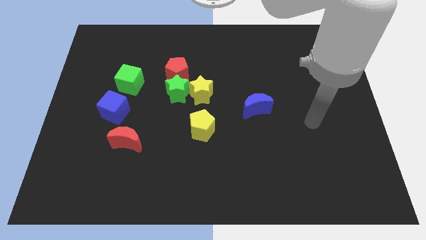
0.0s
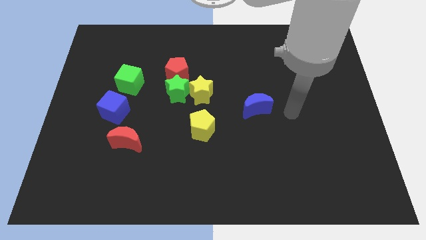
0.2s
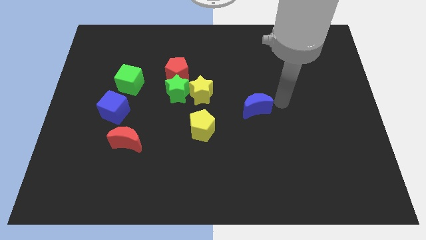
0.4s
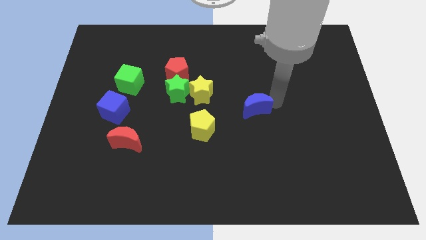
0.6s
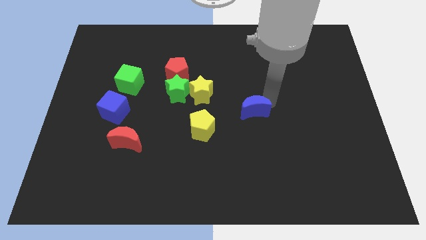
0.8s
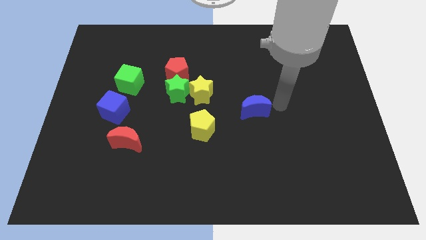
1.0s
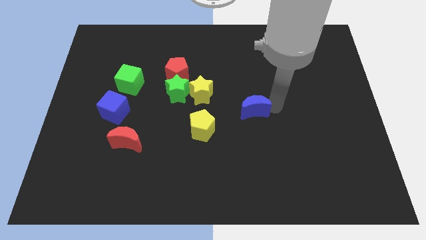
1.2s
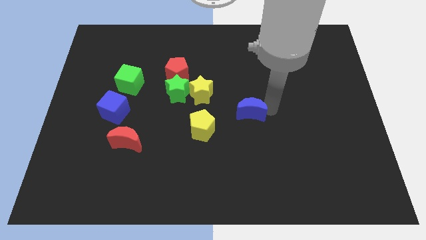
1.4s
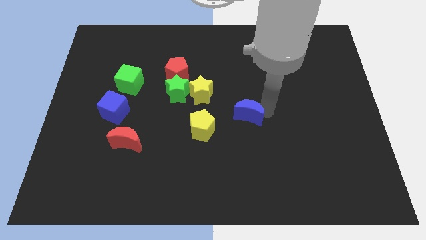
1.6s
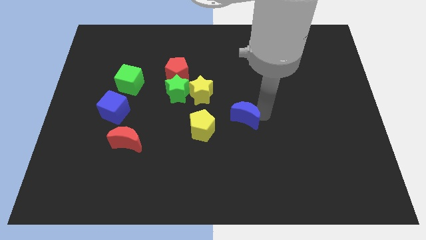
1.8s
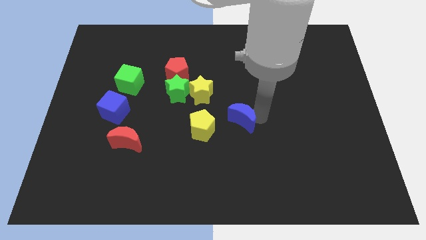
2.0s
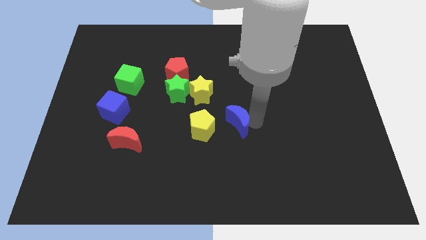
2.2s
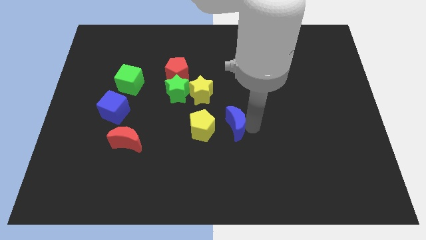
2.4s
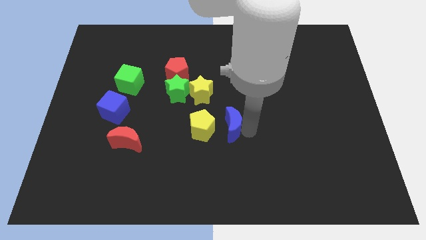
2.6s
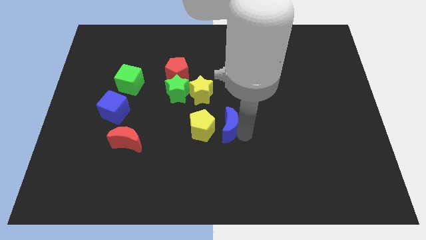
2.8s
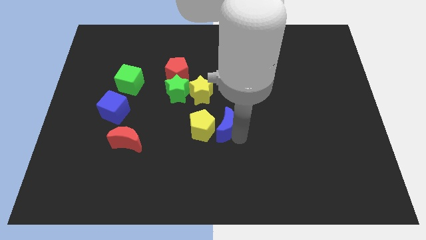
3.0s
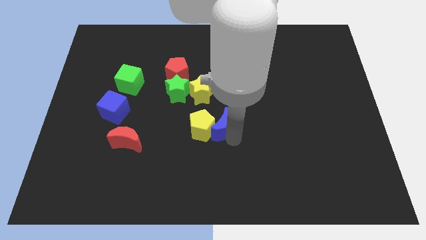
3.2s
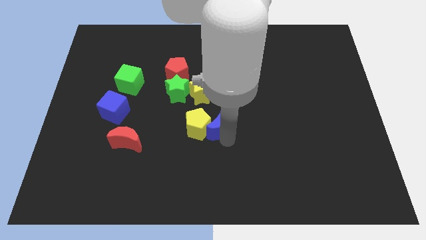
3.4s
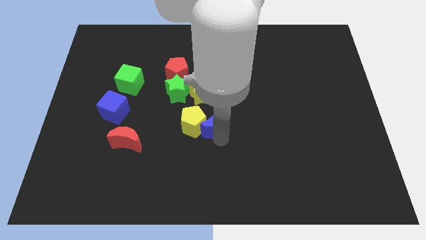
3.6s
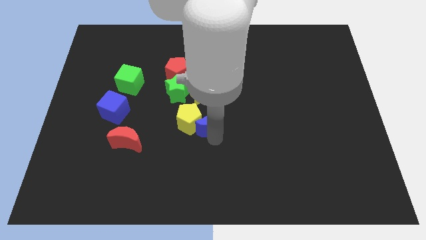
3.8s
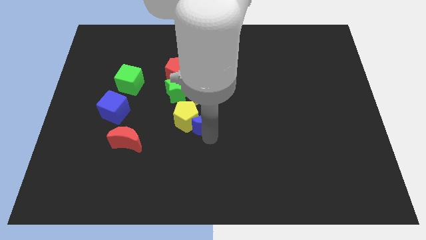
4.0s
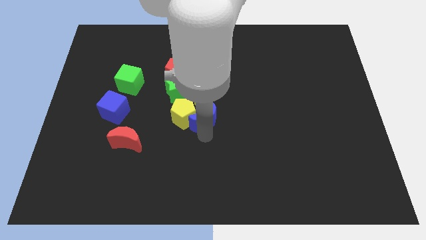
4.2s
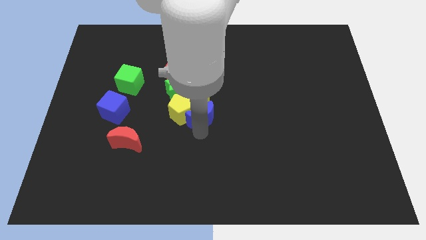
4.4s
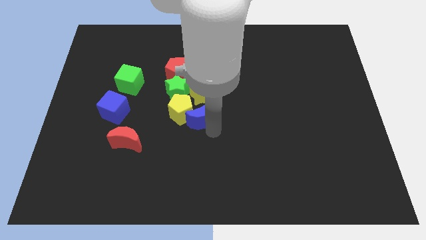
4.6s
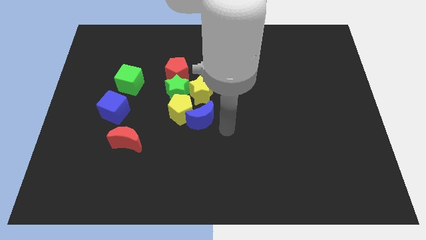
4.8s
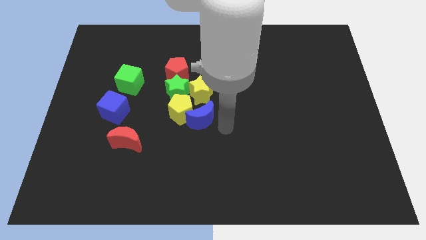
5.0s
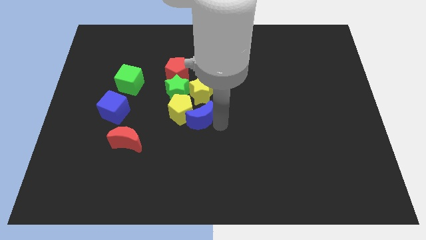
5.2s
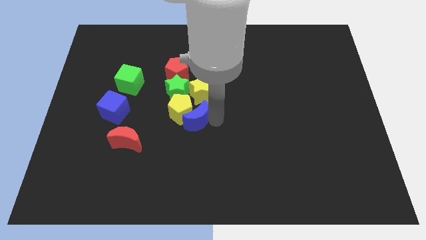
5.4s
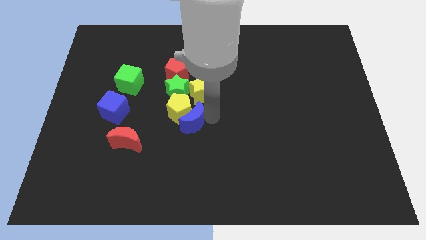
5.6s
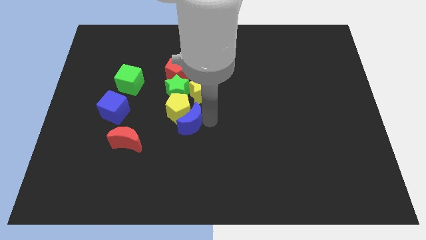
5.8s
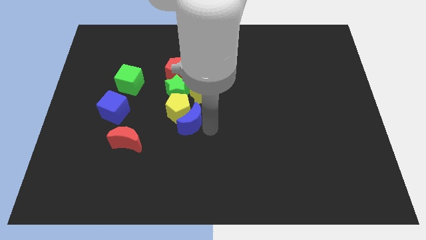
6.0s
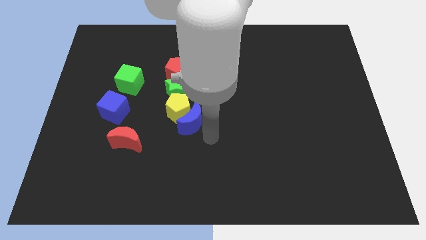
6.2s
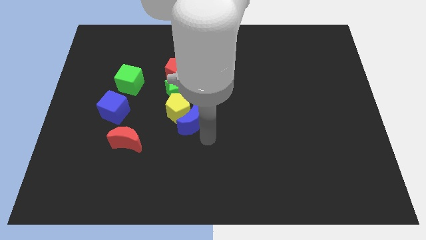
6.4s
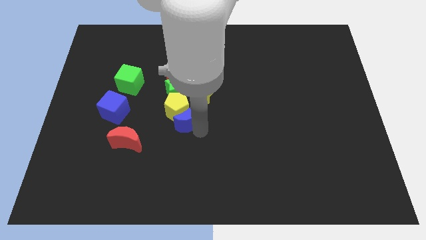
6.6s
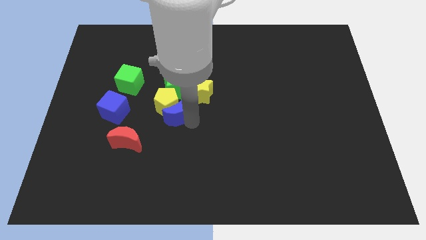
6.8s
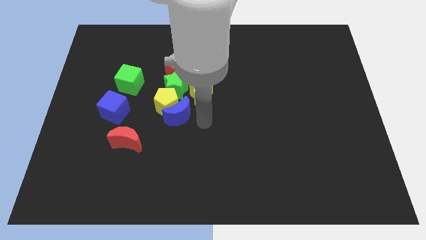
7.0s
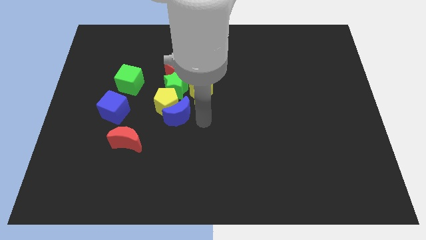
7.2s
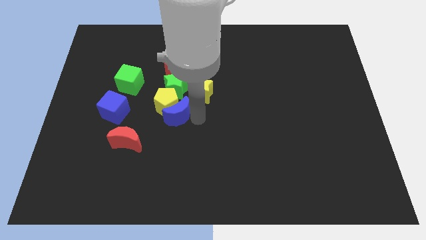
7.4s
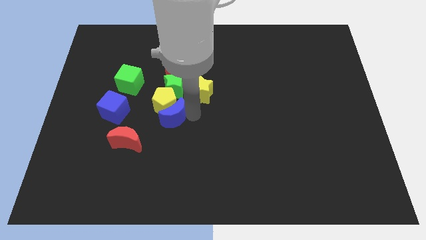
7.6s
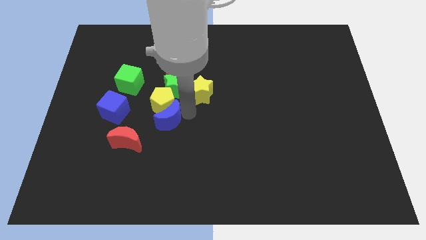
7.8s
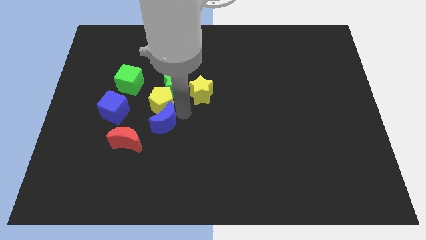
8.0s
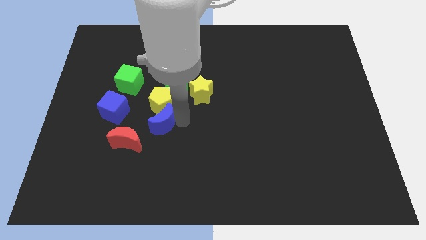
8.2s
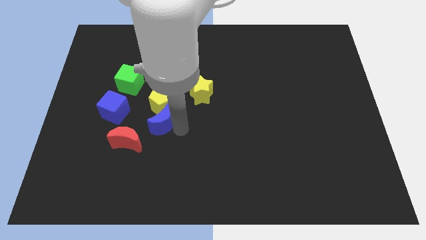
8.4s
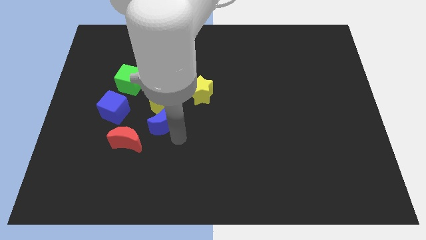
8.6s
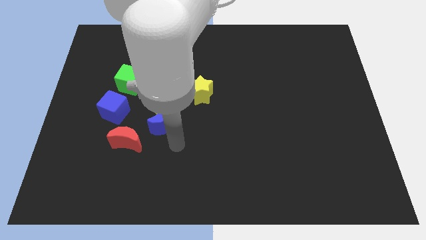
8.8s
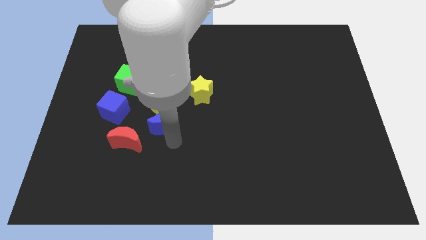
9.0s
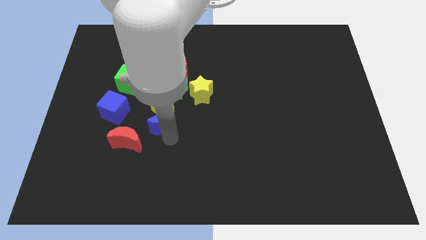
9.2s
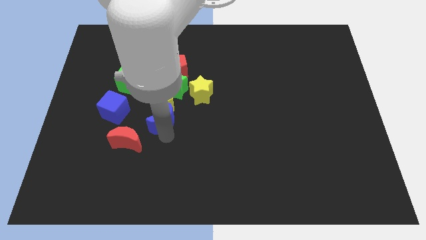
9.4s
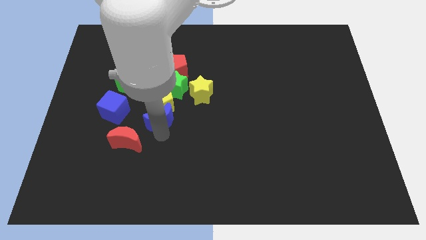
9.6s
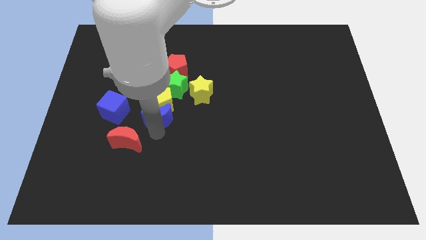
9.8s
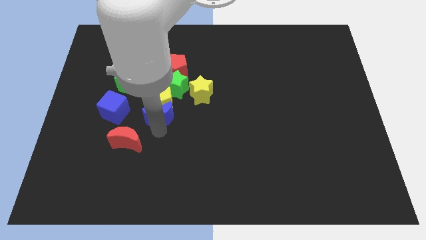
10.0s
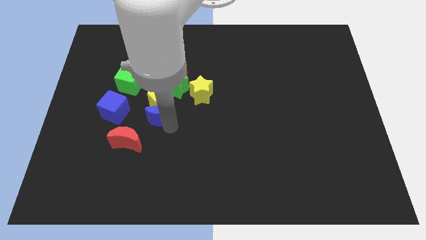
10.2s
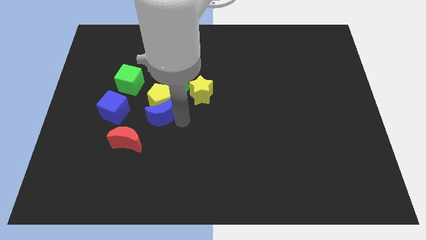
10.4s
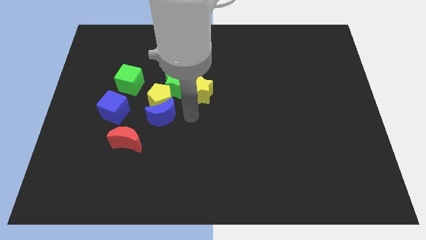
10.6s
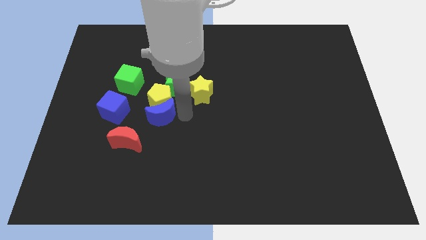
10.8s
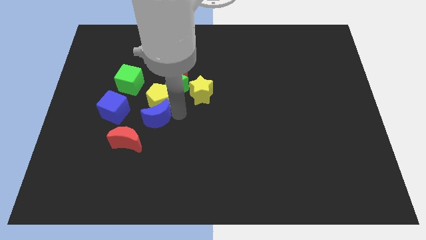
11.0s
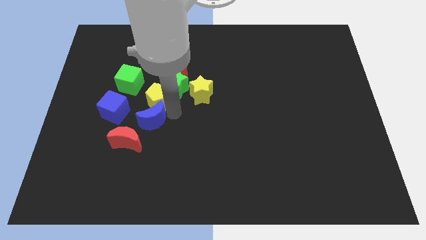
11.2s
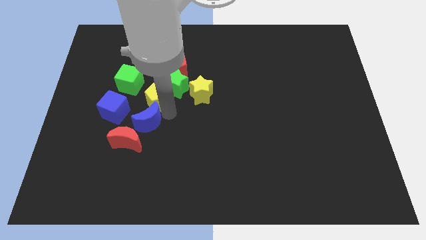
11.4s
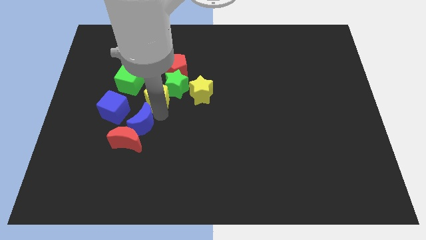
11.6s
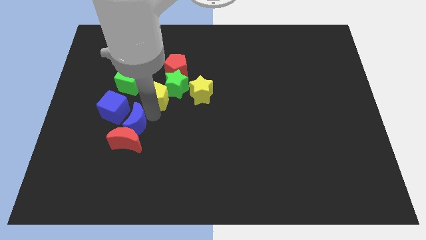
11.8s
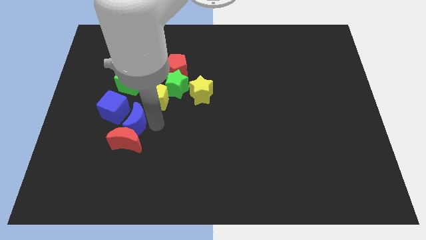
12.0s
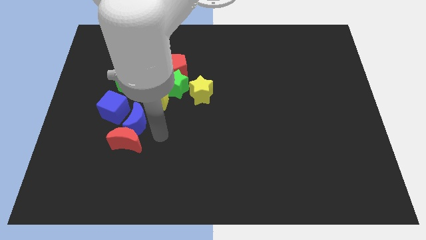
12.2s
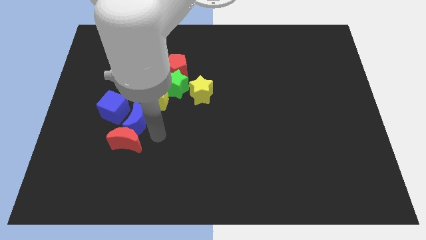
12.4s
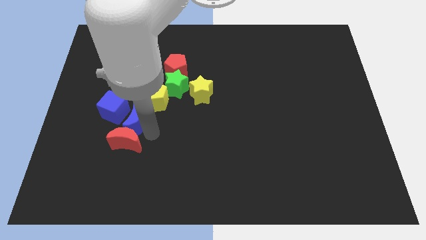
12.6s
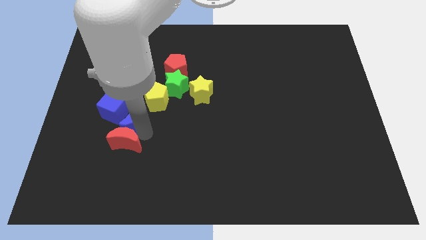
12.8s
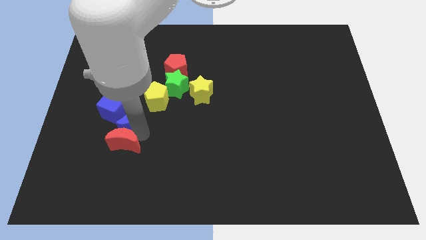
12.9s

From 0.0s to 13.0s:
slide the blue moon towards the blue cube
